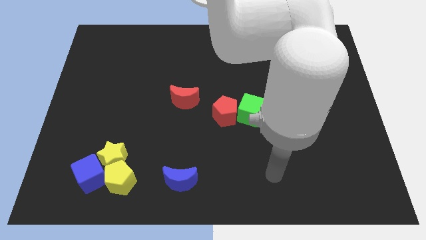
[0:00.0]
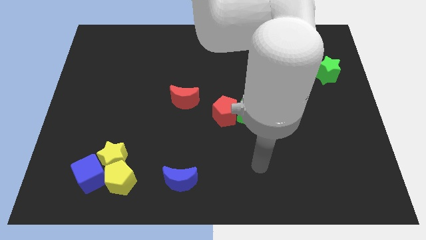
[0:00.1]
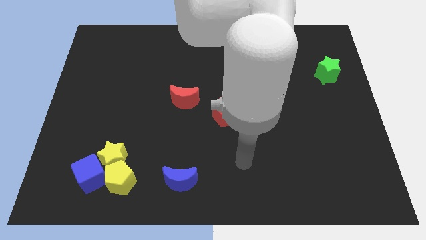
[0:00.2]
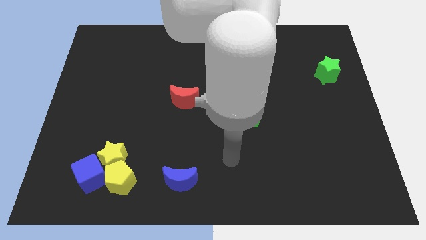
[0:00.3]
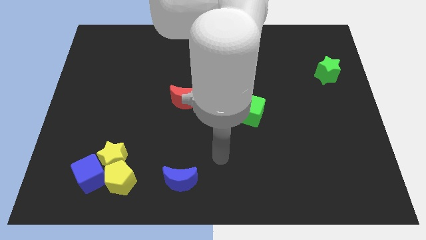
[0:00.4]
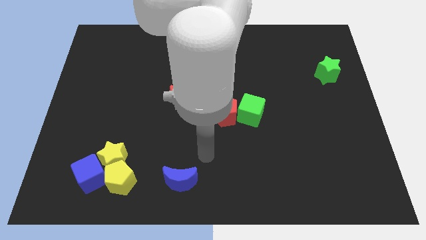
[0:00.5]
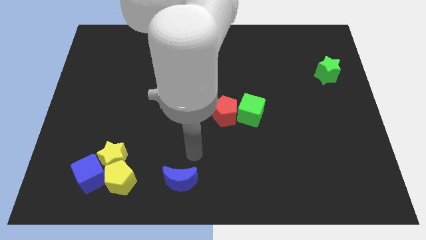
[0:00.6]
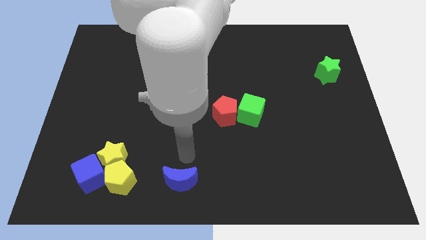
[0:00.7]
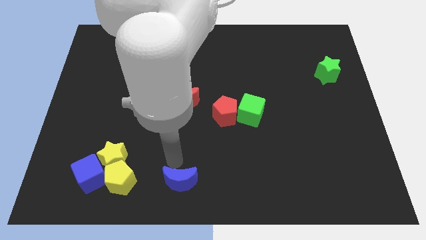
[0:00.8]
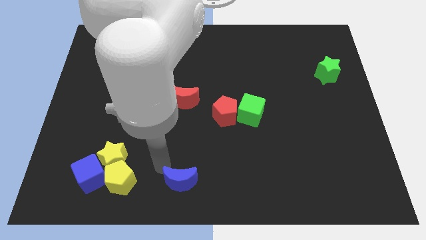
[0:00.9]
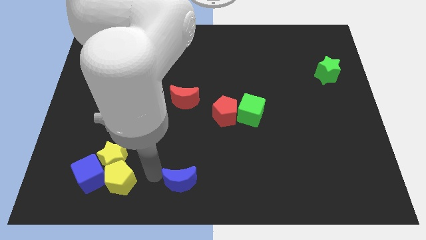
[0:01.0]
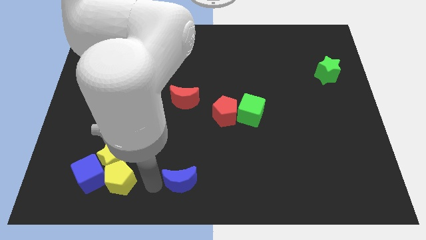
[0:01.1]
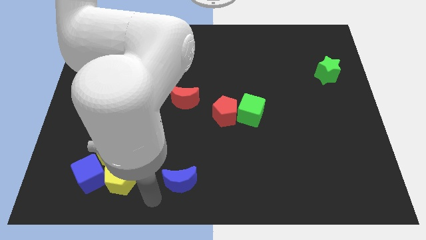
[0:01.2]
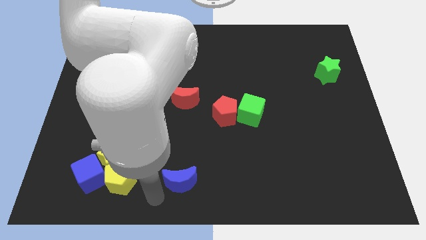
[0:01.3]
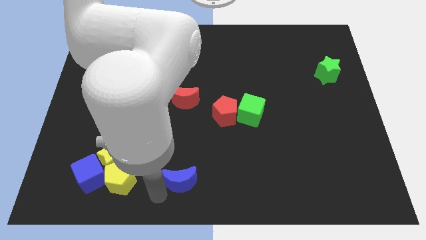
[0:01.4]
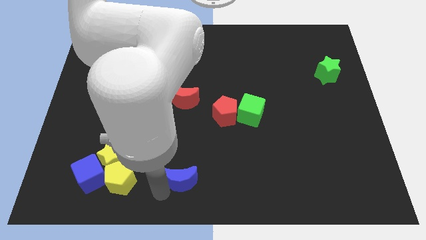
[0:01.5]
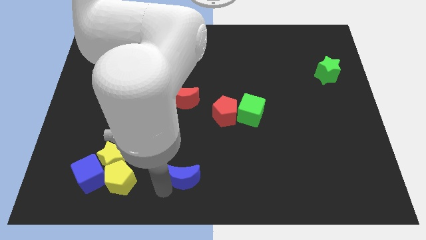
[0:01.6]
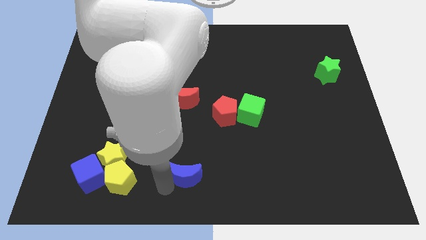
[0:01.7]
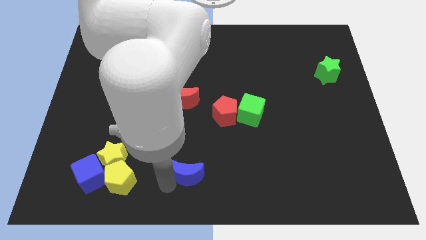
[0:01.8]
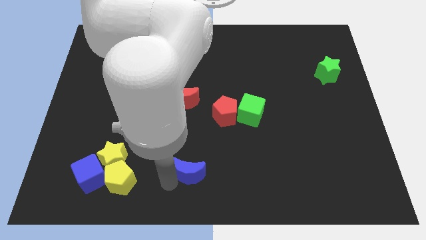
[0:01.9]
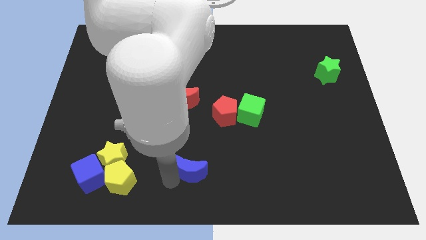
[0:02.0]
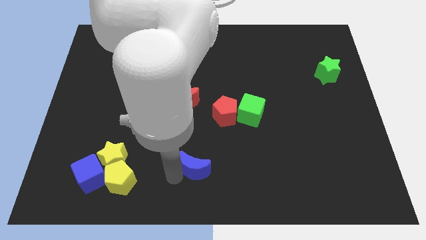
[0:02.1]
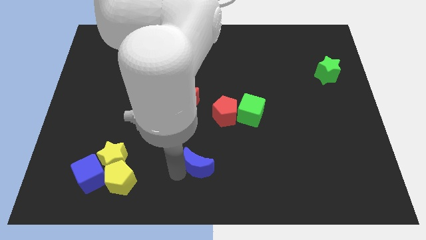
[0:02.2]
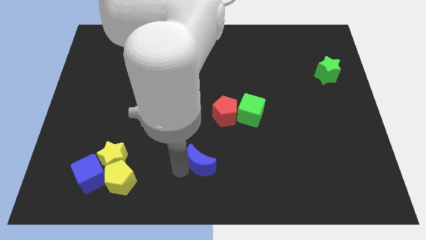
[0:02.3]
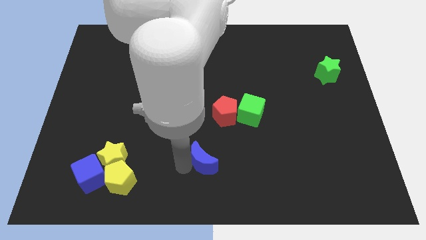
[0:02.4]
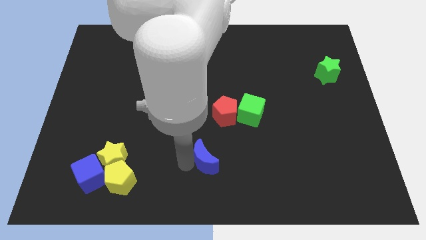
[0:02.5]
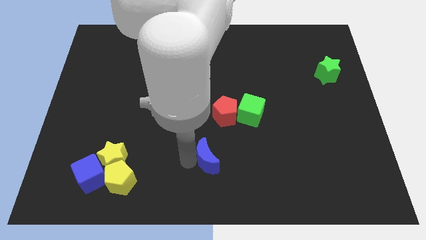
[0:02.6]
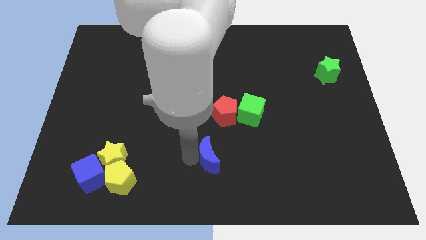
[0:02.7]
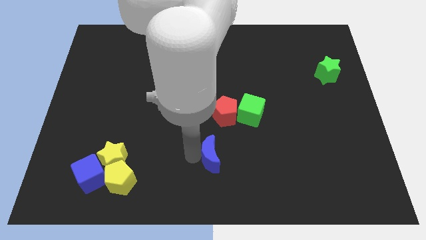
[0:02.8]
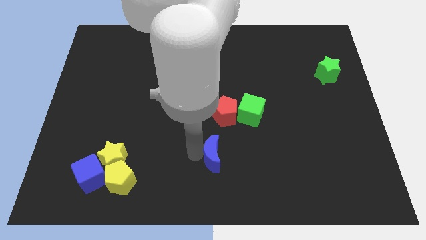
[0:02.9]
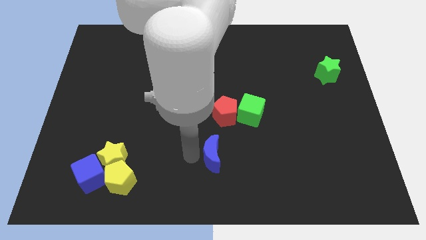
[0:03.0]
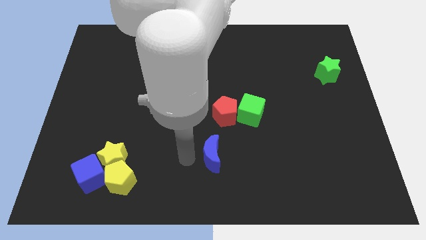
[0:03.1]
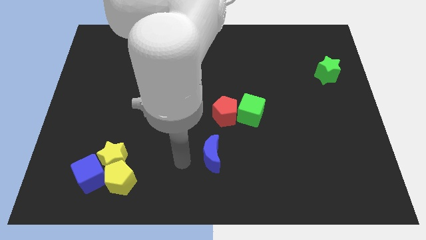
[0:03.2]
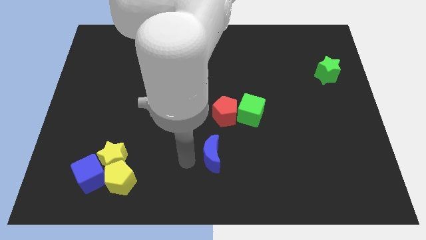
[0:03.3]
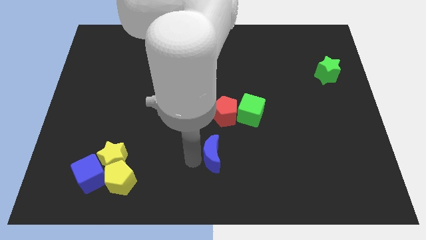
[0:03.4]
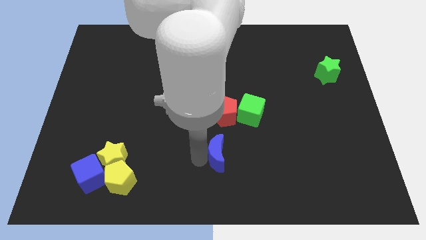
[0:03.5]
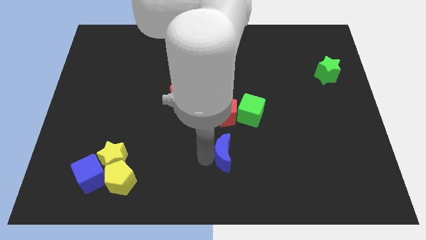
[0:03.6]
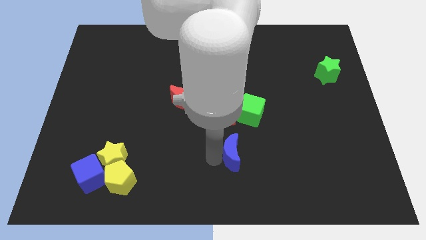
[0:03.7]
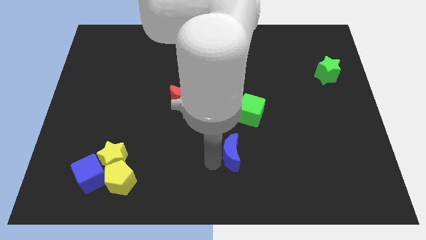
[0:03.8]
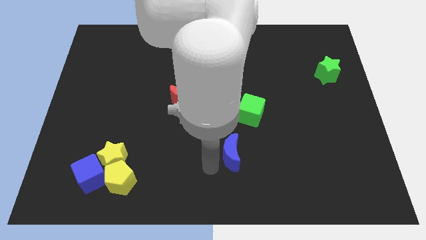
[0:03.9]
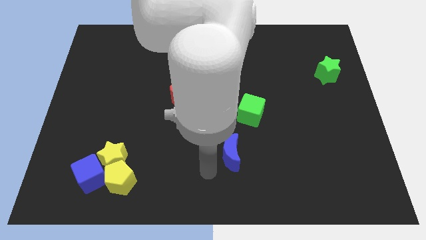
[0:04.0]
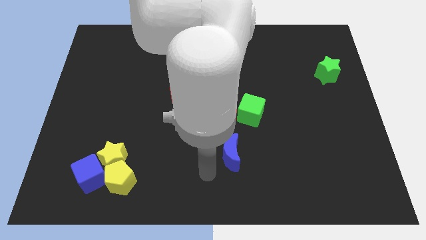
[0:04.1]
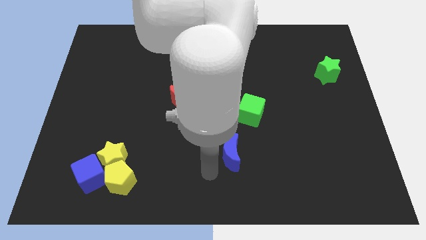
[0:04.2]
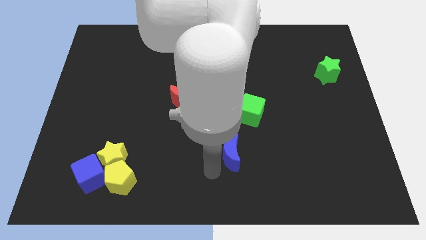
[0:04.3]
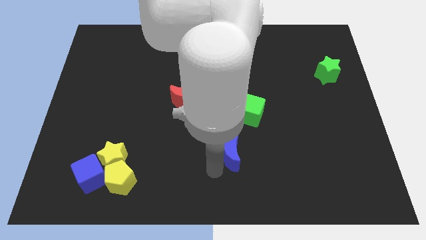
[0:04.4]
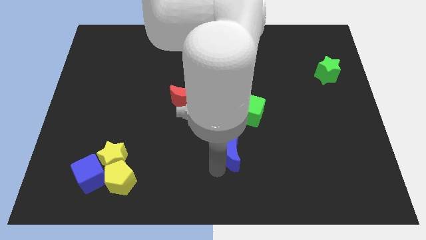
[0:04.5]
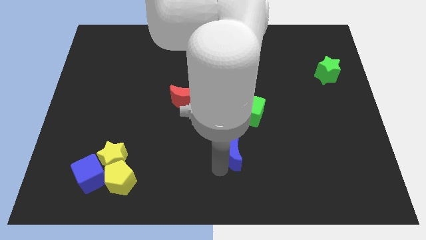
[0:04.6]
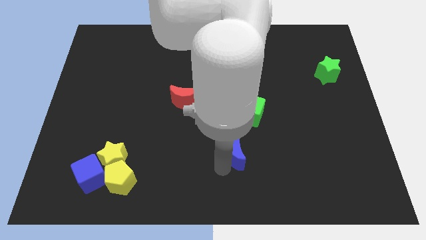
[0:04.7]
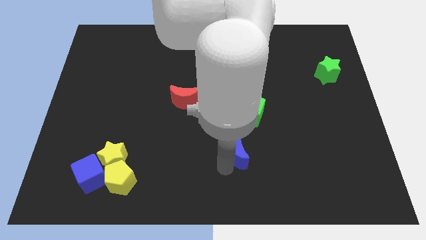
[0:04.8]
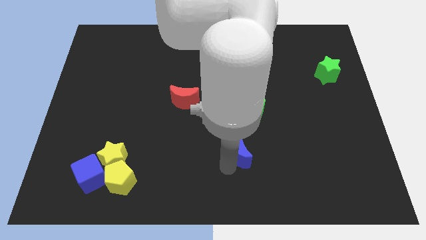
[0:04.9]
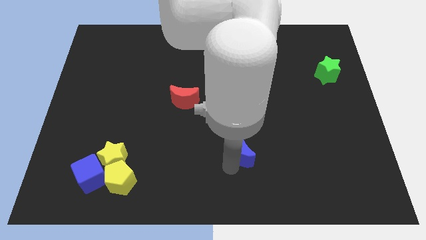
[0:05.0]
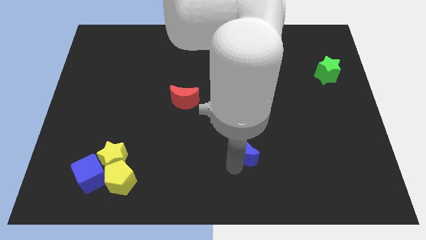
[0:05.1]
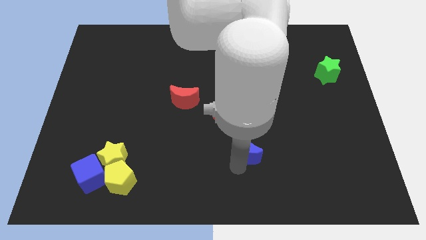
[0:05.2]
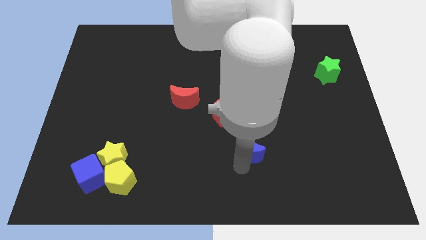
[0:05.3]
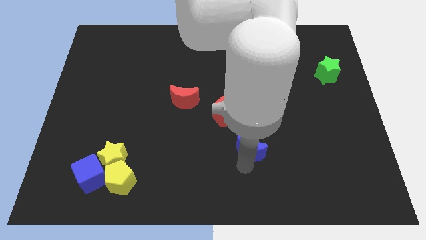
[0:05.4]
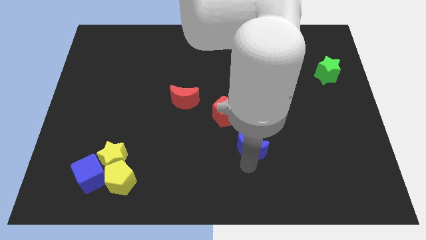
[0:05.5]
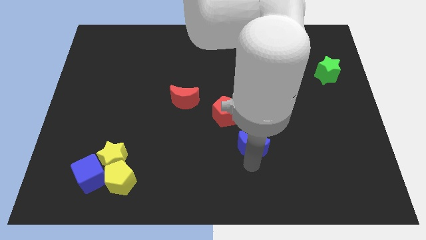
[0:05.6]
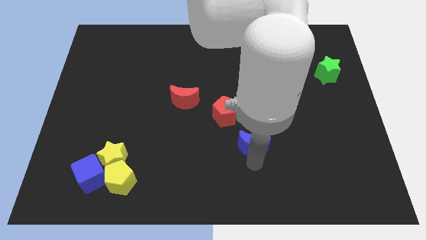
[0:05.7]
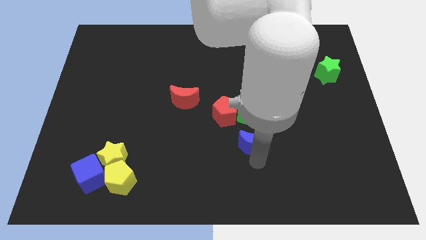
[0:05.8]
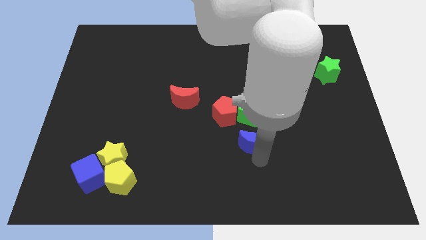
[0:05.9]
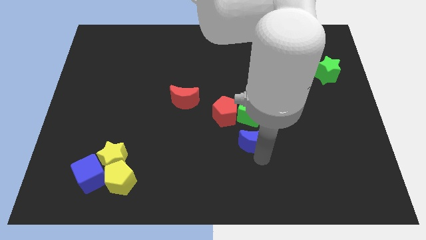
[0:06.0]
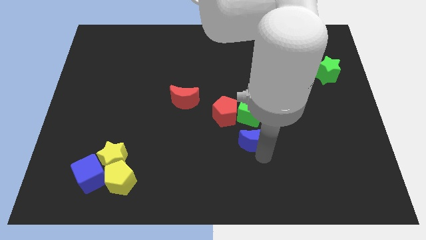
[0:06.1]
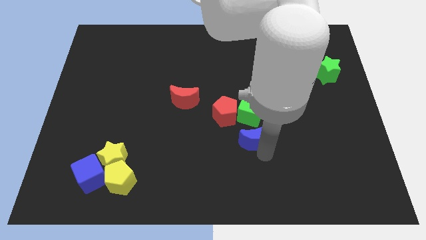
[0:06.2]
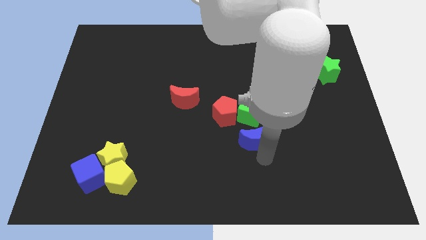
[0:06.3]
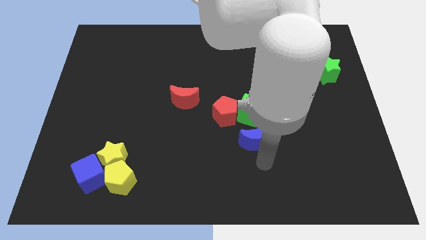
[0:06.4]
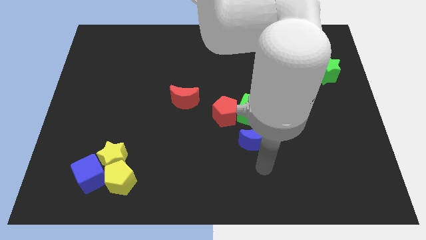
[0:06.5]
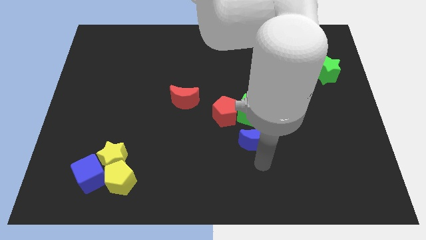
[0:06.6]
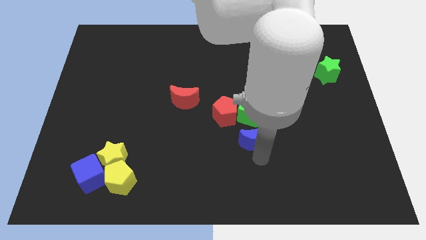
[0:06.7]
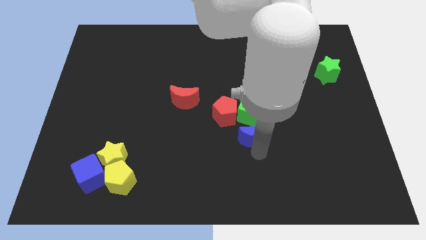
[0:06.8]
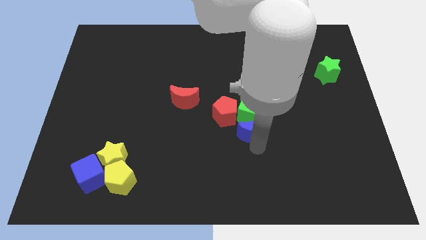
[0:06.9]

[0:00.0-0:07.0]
put the blue moon towards the green cube
